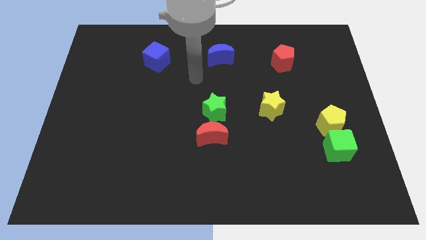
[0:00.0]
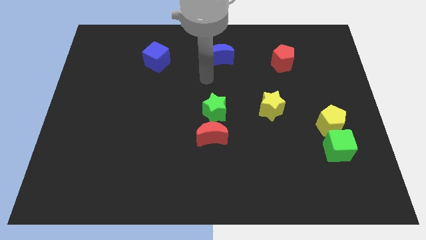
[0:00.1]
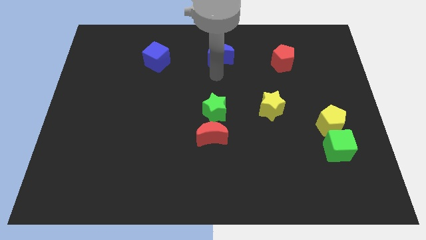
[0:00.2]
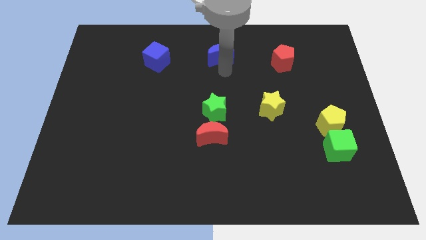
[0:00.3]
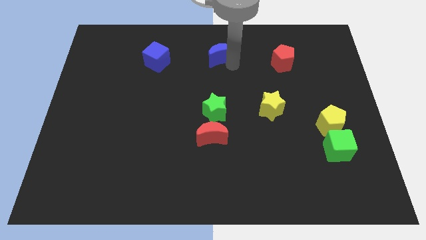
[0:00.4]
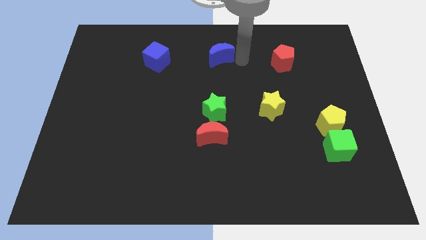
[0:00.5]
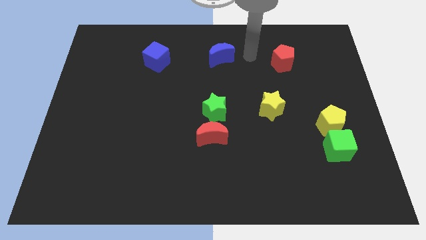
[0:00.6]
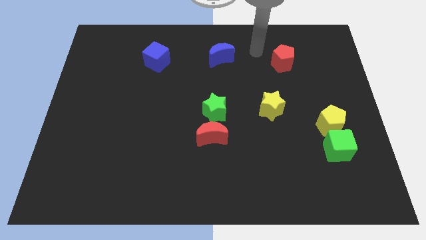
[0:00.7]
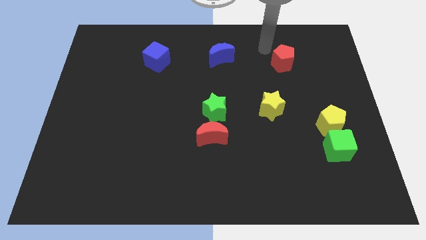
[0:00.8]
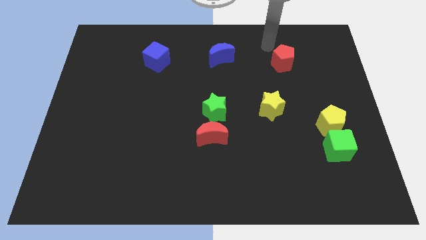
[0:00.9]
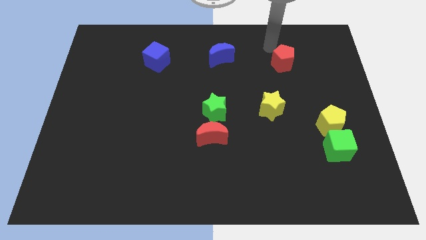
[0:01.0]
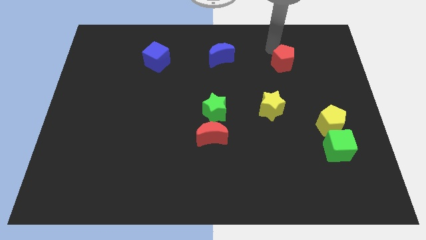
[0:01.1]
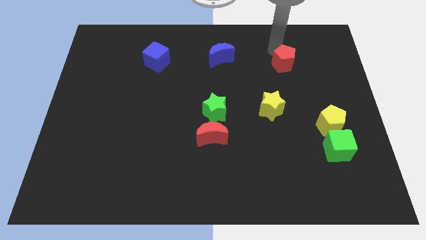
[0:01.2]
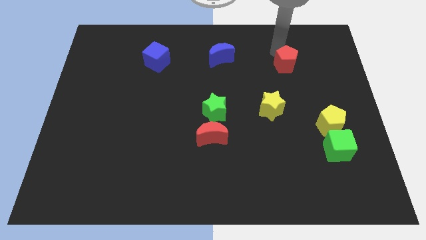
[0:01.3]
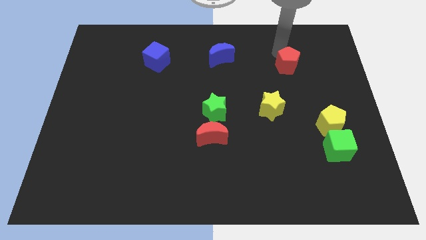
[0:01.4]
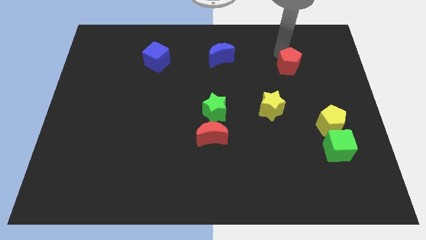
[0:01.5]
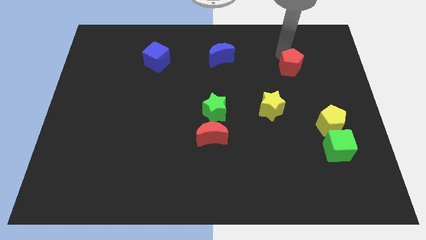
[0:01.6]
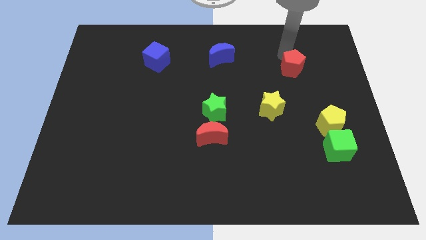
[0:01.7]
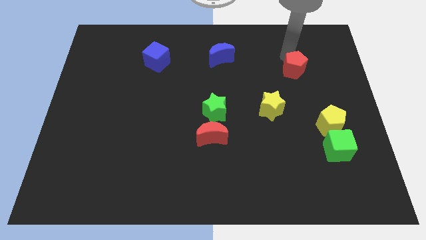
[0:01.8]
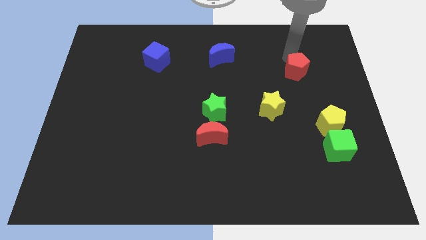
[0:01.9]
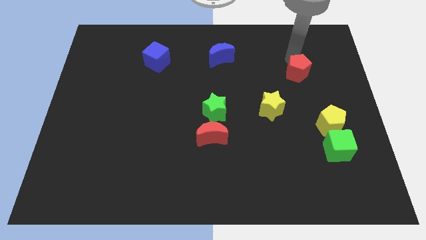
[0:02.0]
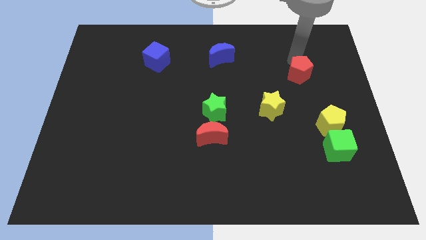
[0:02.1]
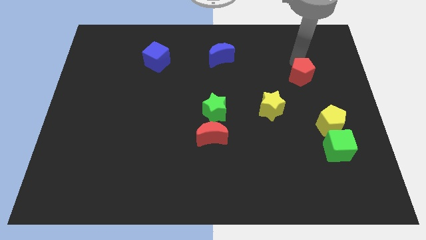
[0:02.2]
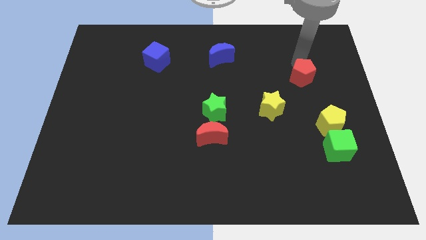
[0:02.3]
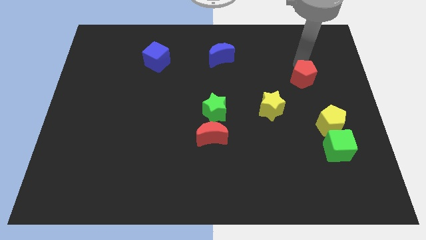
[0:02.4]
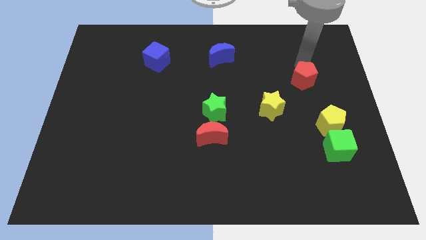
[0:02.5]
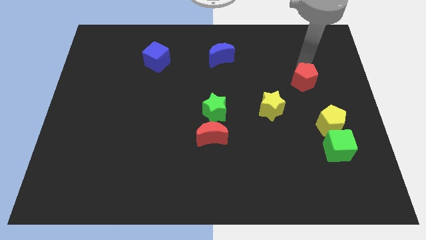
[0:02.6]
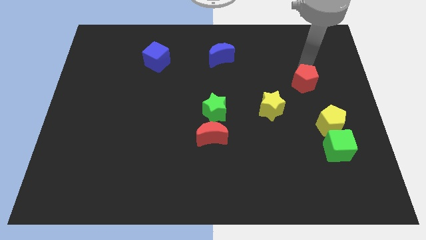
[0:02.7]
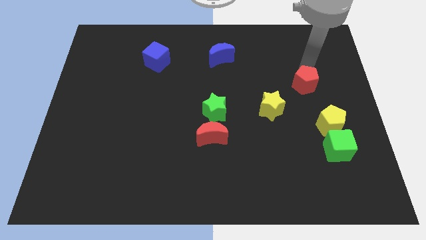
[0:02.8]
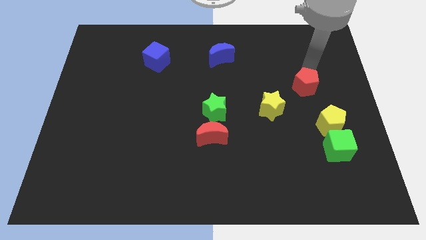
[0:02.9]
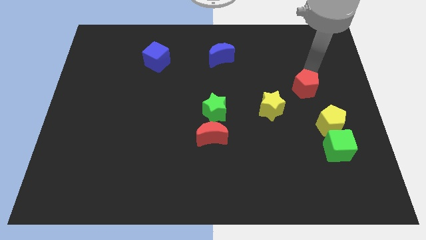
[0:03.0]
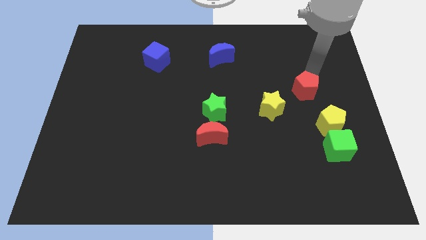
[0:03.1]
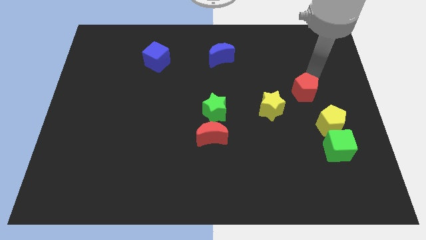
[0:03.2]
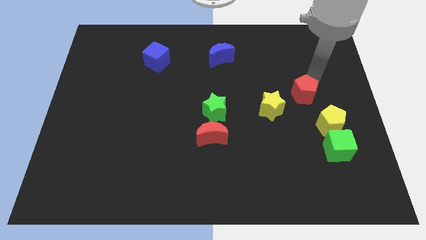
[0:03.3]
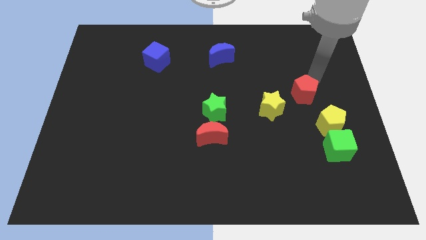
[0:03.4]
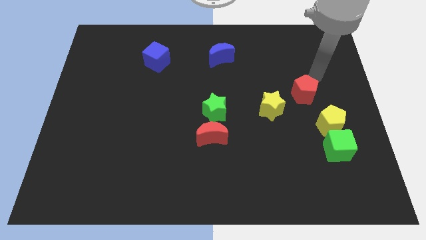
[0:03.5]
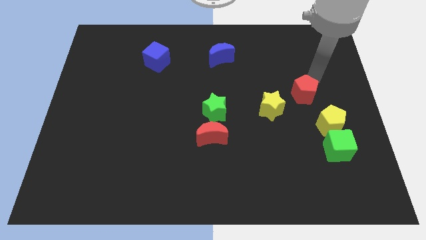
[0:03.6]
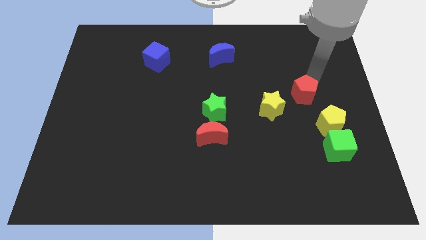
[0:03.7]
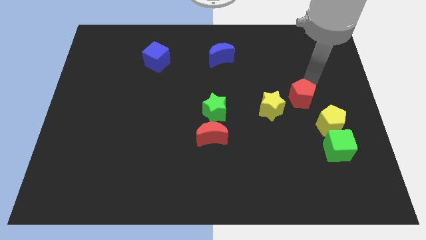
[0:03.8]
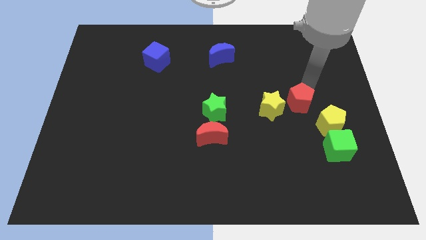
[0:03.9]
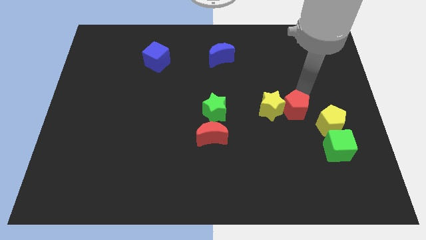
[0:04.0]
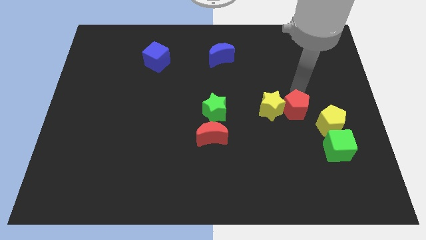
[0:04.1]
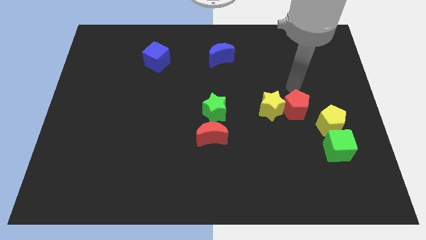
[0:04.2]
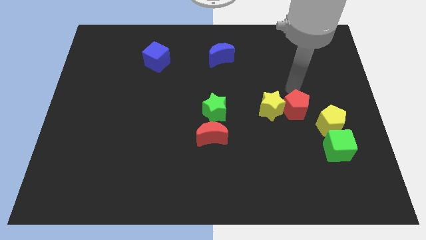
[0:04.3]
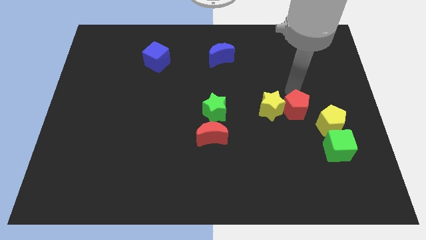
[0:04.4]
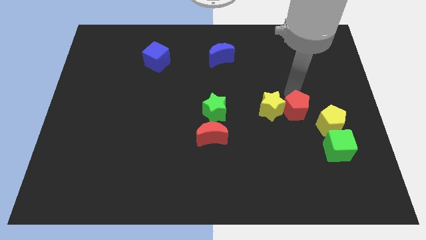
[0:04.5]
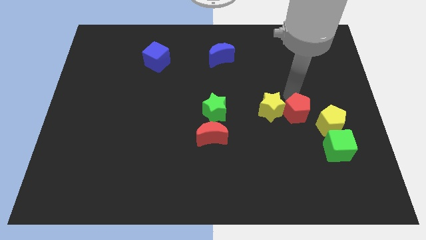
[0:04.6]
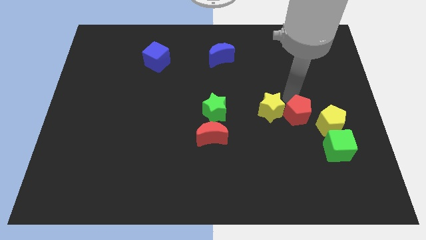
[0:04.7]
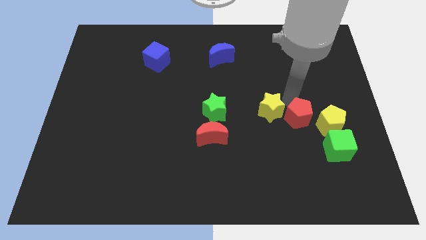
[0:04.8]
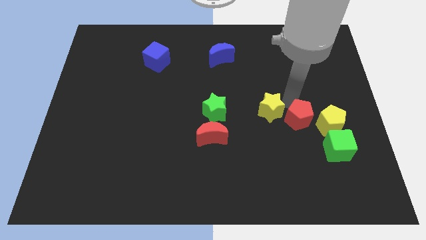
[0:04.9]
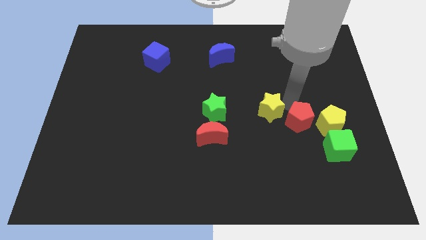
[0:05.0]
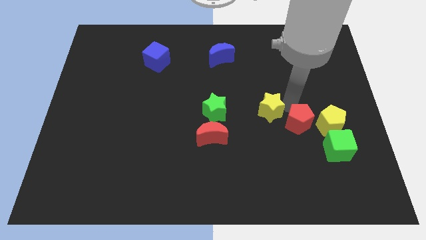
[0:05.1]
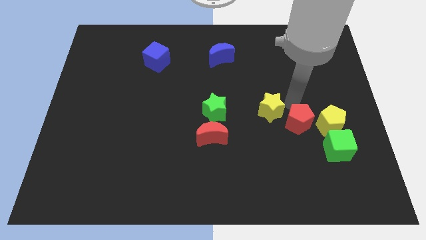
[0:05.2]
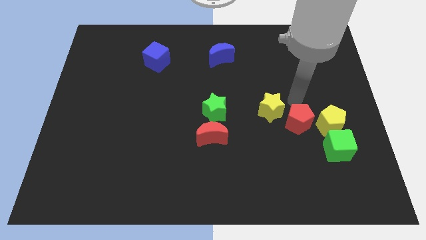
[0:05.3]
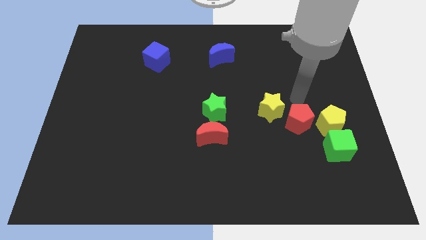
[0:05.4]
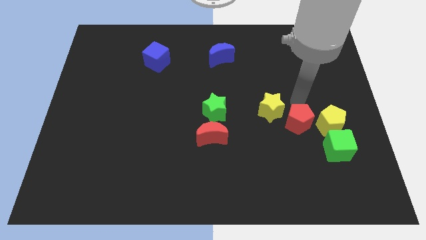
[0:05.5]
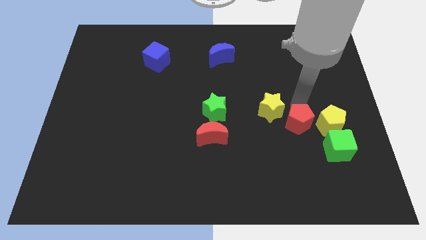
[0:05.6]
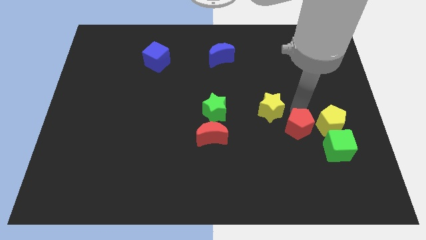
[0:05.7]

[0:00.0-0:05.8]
move the red pentagon downwards

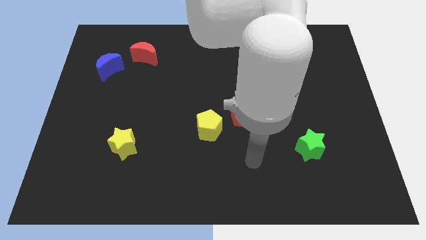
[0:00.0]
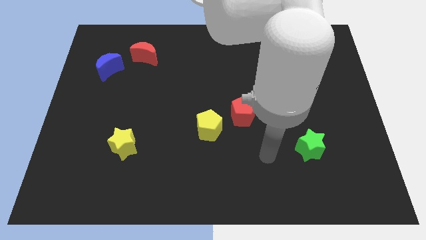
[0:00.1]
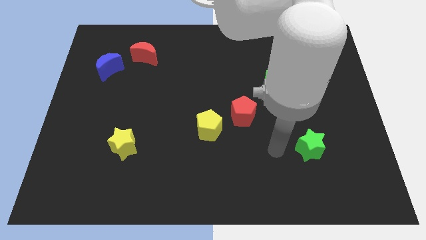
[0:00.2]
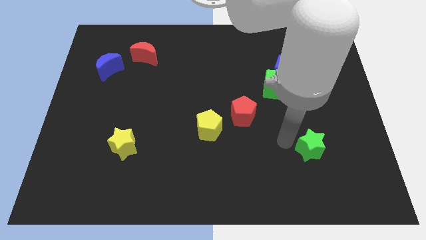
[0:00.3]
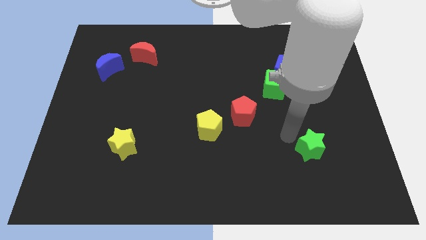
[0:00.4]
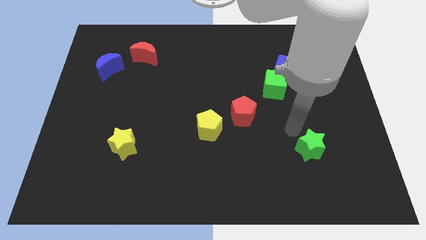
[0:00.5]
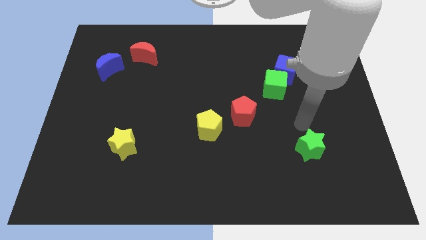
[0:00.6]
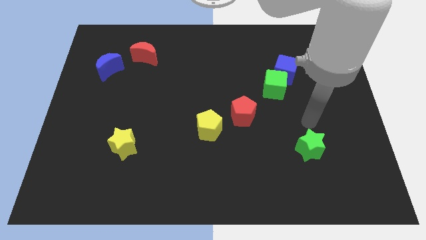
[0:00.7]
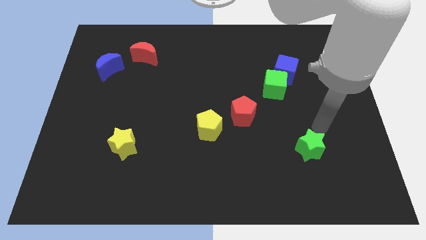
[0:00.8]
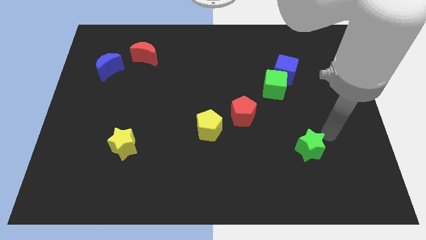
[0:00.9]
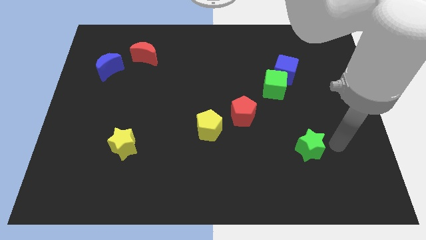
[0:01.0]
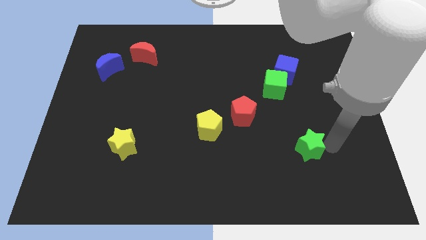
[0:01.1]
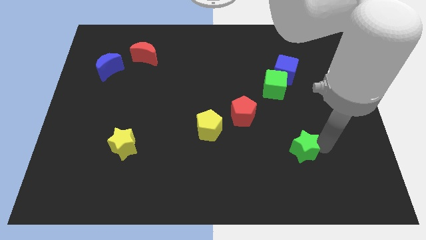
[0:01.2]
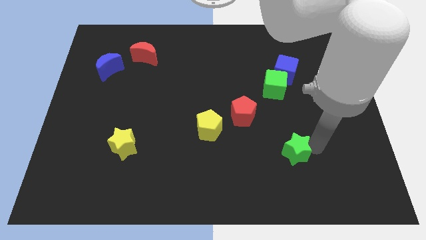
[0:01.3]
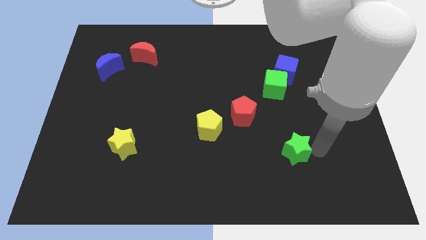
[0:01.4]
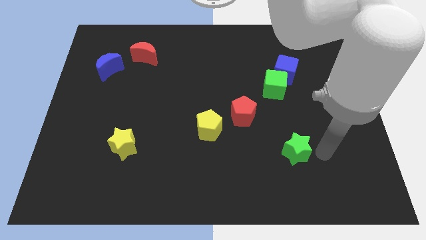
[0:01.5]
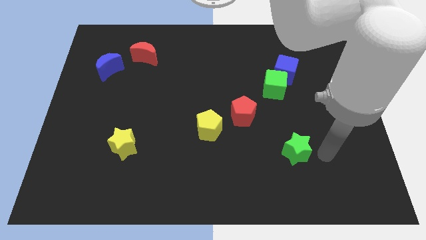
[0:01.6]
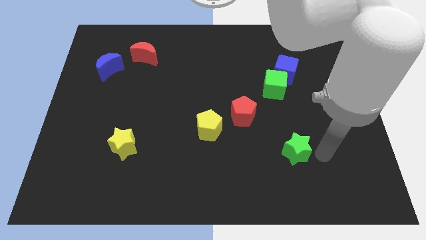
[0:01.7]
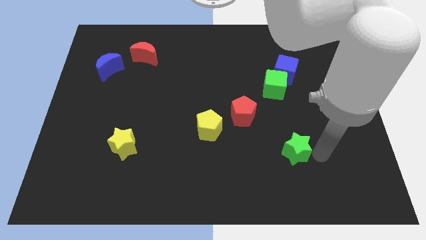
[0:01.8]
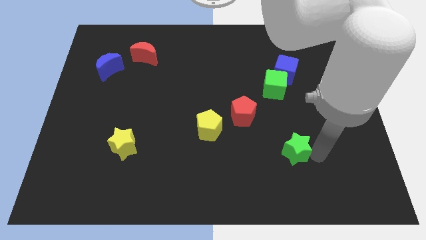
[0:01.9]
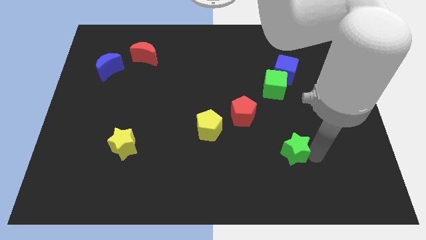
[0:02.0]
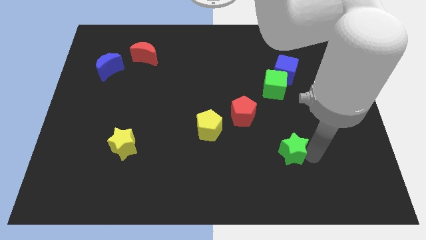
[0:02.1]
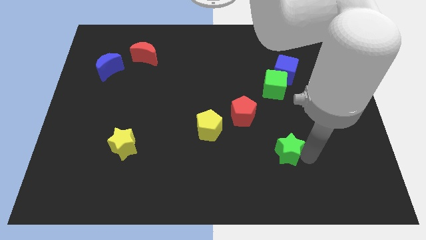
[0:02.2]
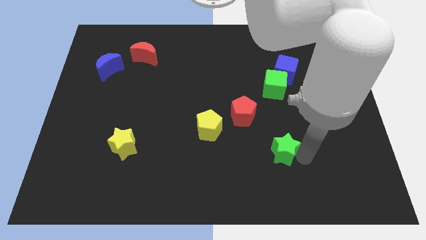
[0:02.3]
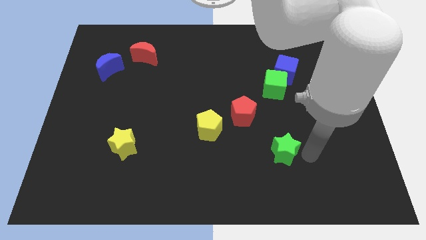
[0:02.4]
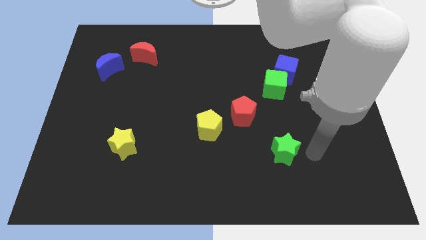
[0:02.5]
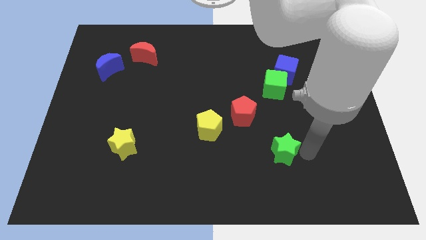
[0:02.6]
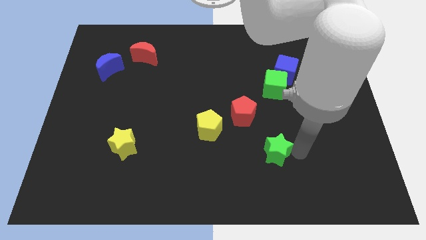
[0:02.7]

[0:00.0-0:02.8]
move the green star to the left a little
